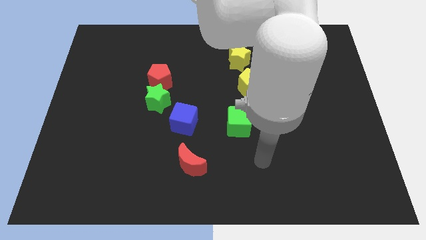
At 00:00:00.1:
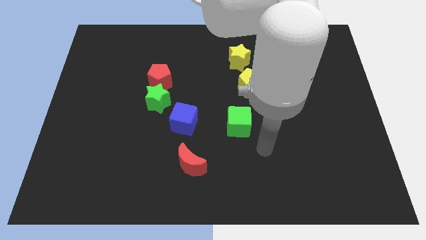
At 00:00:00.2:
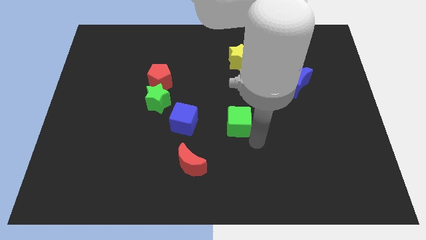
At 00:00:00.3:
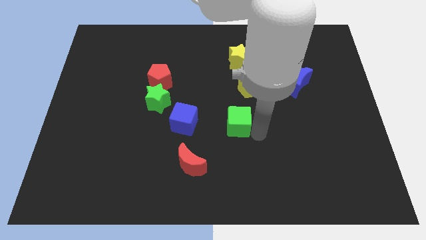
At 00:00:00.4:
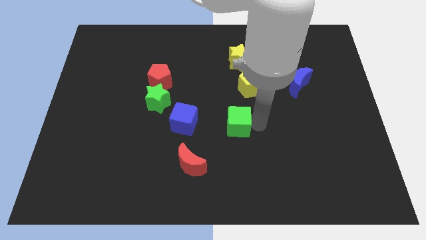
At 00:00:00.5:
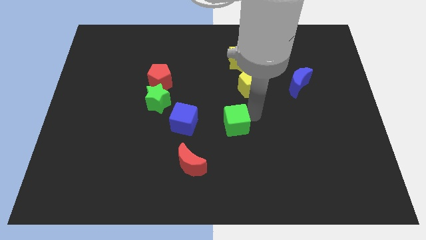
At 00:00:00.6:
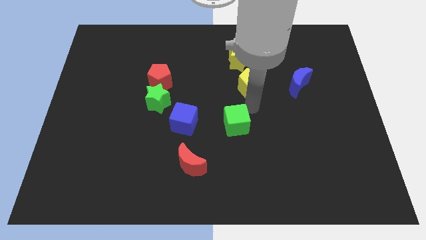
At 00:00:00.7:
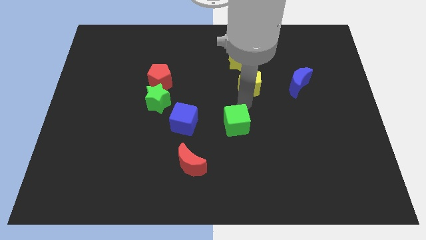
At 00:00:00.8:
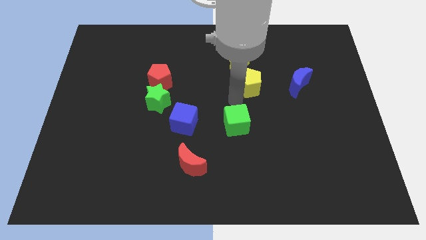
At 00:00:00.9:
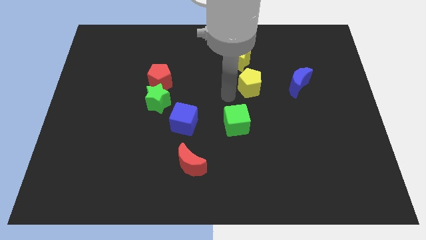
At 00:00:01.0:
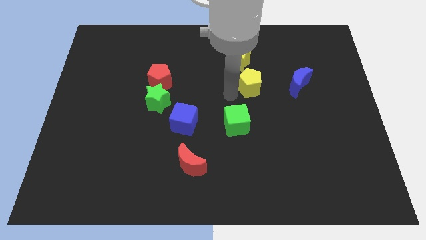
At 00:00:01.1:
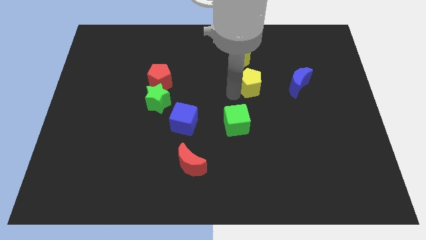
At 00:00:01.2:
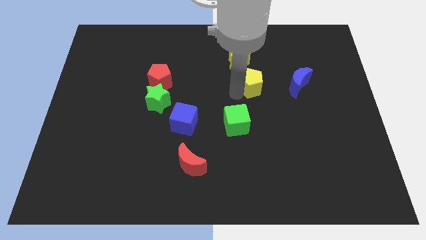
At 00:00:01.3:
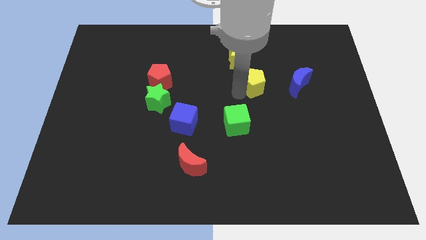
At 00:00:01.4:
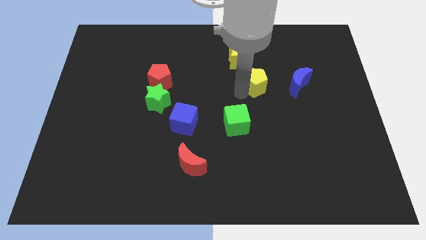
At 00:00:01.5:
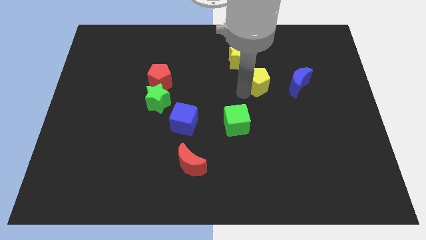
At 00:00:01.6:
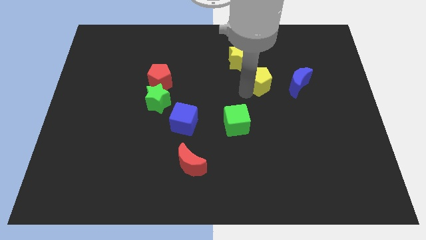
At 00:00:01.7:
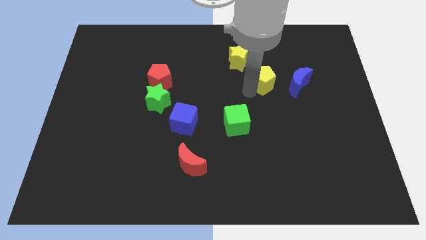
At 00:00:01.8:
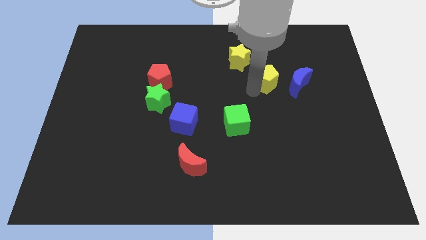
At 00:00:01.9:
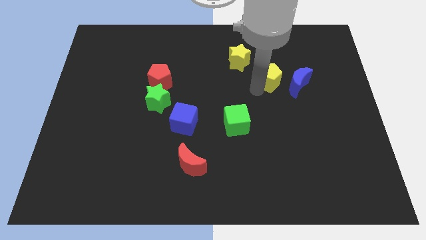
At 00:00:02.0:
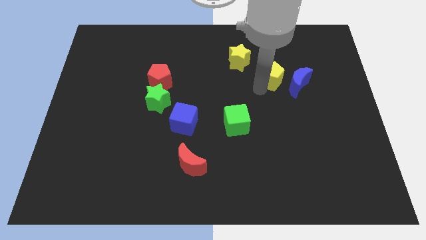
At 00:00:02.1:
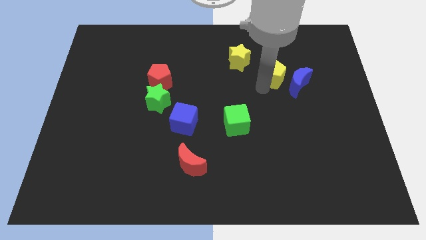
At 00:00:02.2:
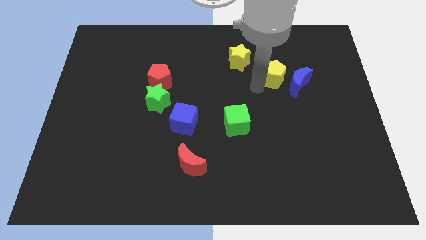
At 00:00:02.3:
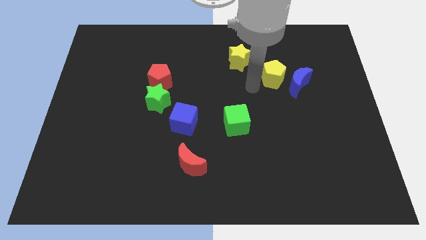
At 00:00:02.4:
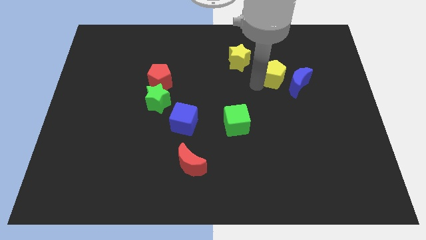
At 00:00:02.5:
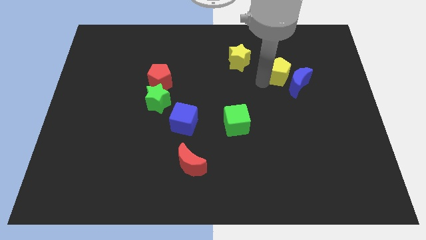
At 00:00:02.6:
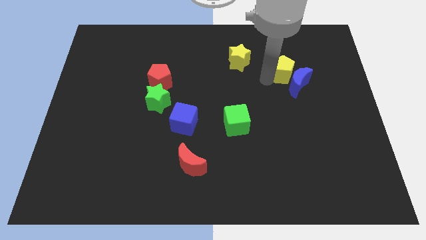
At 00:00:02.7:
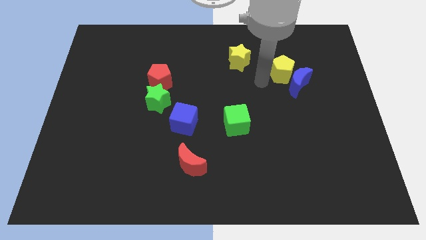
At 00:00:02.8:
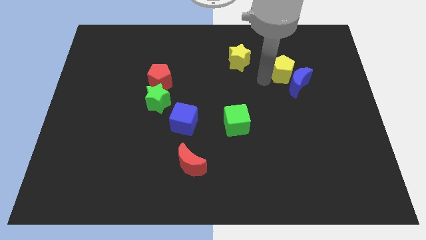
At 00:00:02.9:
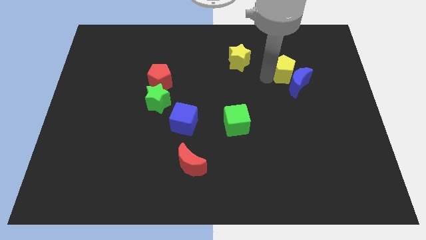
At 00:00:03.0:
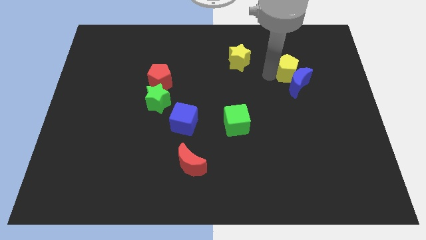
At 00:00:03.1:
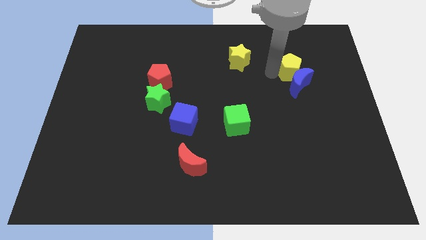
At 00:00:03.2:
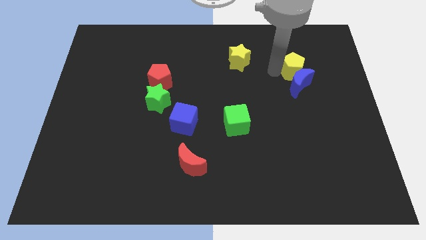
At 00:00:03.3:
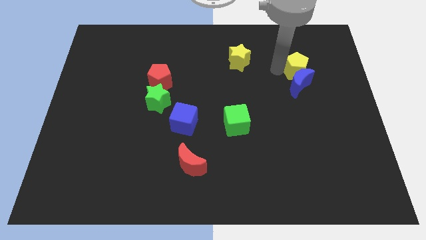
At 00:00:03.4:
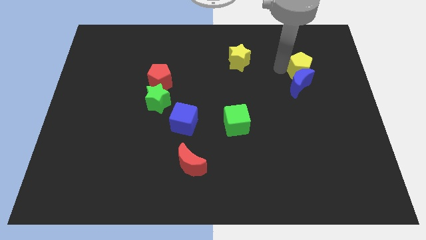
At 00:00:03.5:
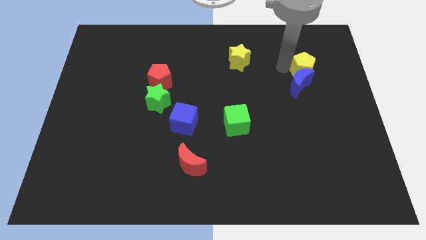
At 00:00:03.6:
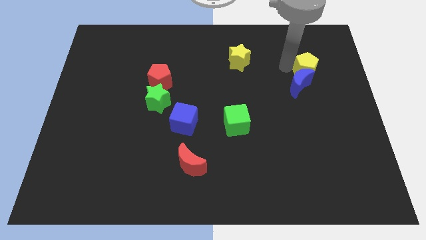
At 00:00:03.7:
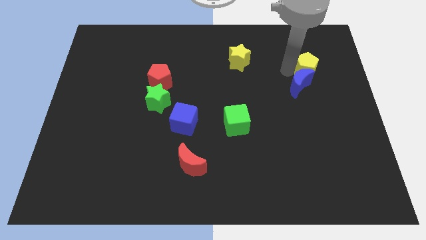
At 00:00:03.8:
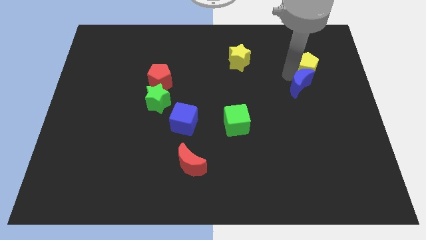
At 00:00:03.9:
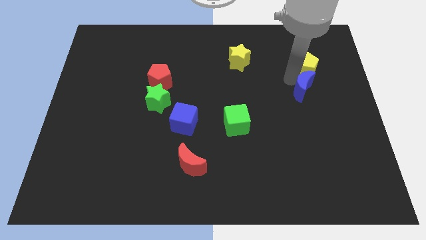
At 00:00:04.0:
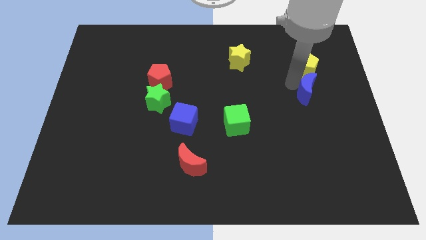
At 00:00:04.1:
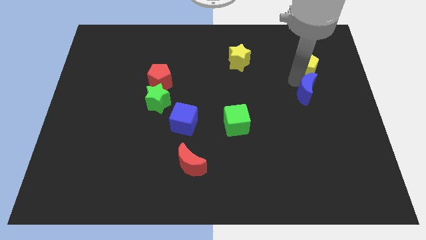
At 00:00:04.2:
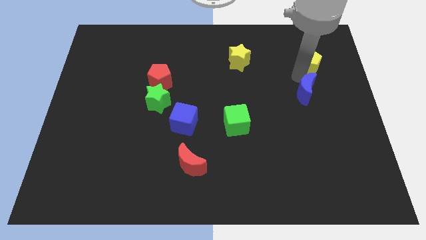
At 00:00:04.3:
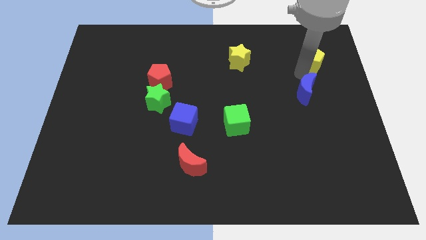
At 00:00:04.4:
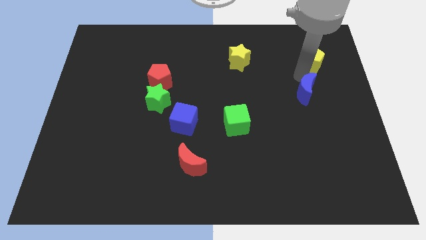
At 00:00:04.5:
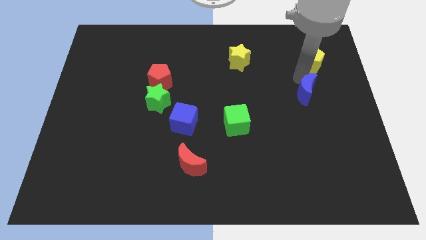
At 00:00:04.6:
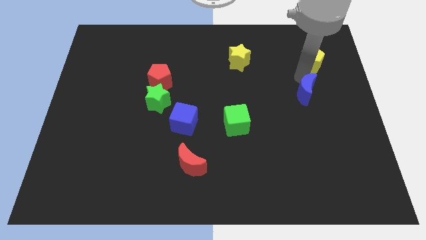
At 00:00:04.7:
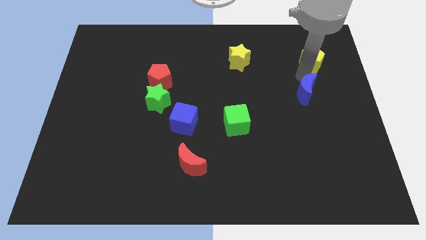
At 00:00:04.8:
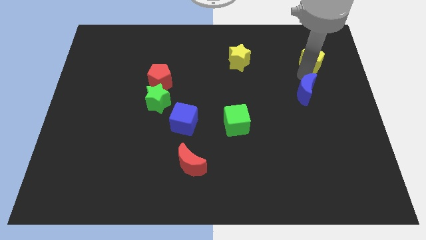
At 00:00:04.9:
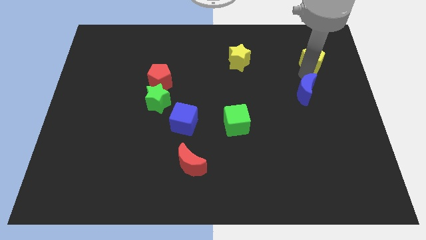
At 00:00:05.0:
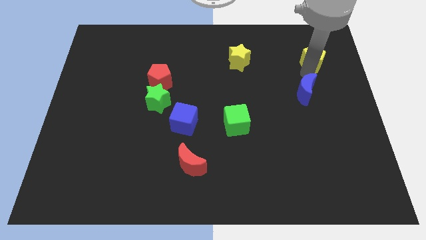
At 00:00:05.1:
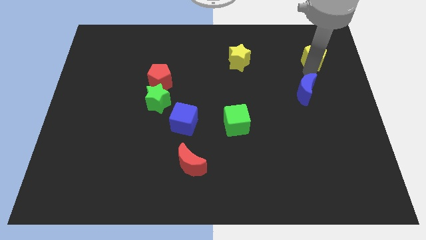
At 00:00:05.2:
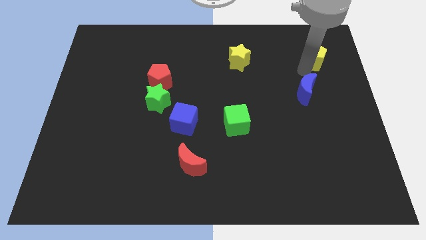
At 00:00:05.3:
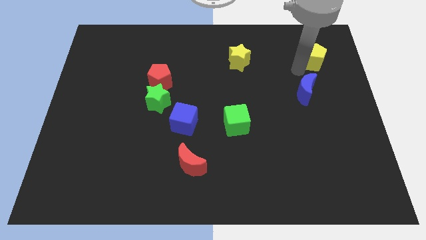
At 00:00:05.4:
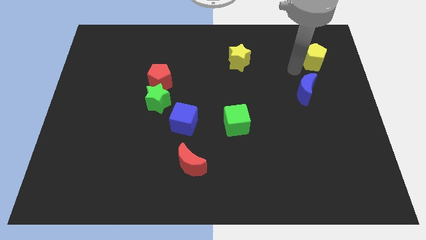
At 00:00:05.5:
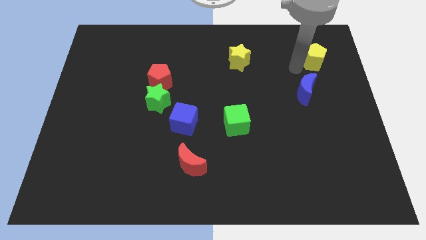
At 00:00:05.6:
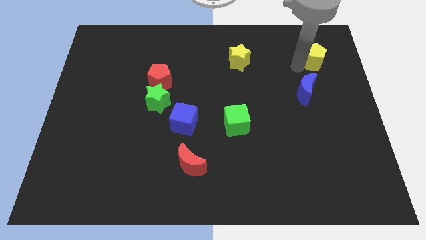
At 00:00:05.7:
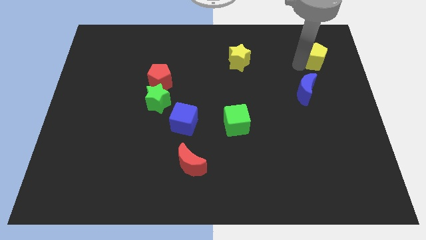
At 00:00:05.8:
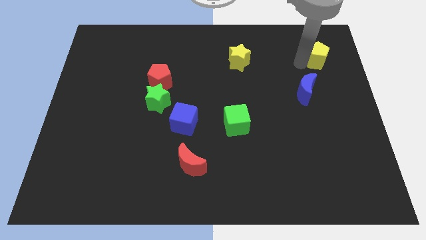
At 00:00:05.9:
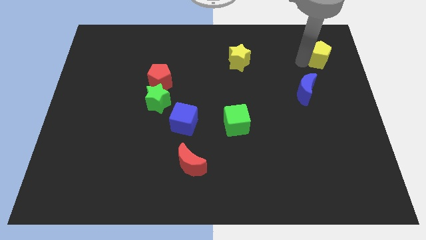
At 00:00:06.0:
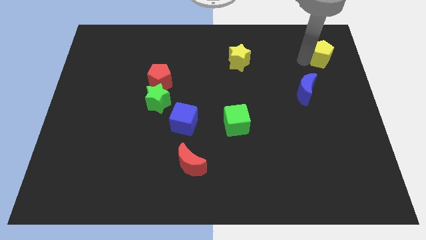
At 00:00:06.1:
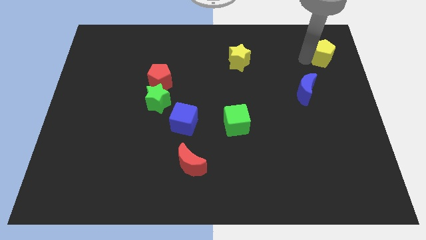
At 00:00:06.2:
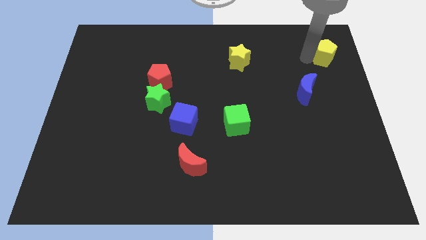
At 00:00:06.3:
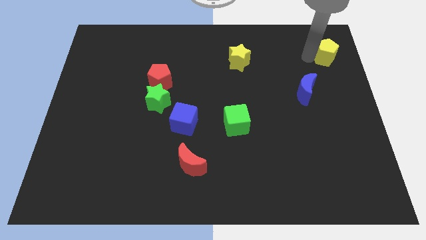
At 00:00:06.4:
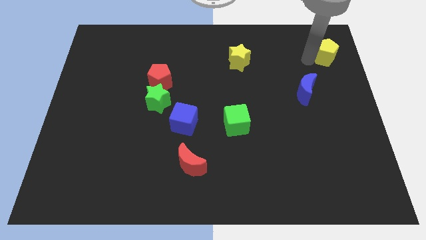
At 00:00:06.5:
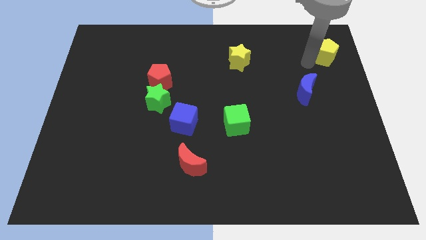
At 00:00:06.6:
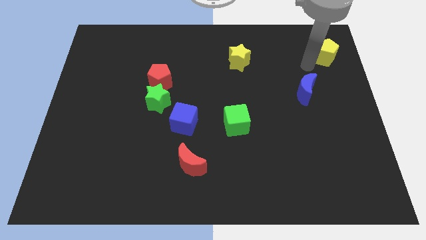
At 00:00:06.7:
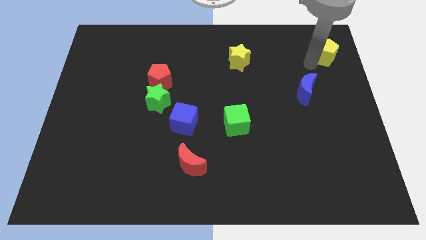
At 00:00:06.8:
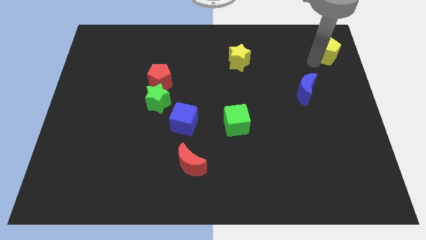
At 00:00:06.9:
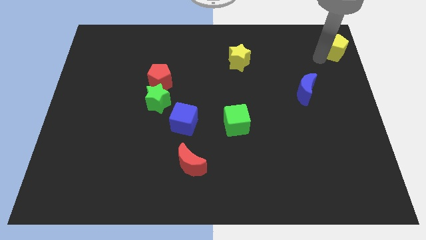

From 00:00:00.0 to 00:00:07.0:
slide the yellow pentagon to the top right corner

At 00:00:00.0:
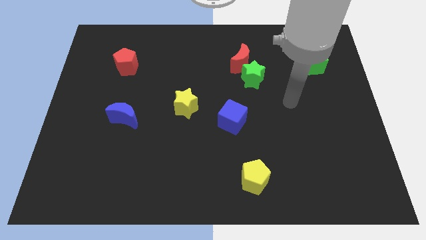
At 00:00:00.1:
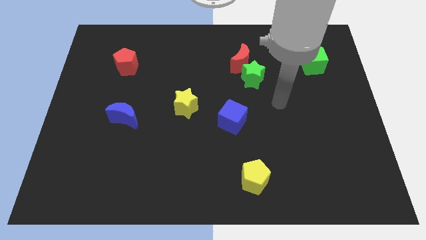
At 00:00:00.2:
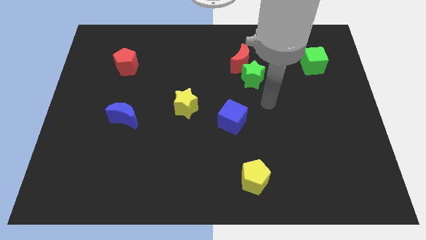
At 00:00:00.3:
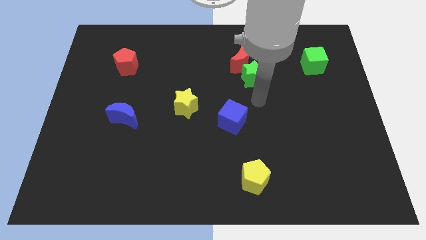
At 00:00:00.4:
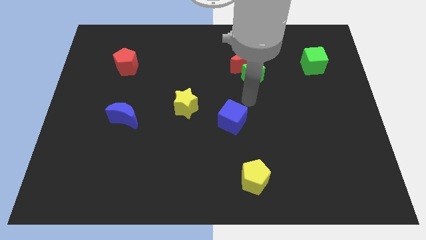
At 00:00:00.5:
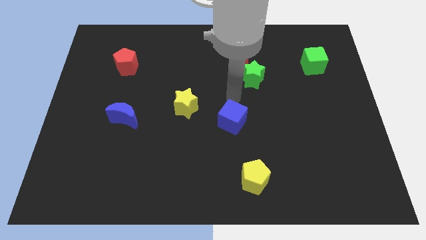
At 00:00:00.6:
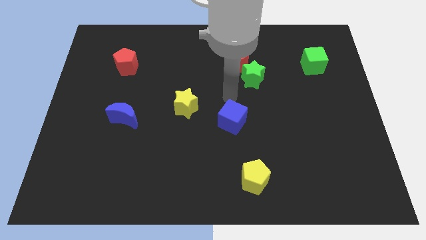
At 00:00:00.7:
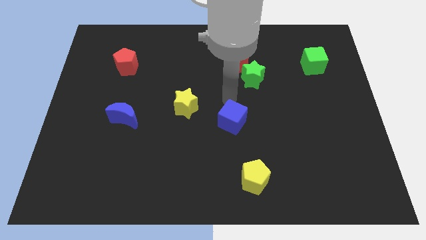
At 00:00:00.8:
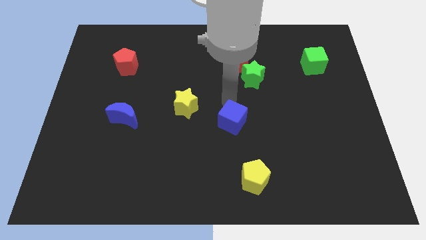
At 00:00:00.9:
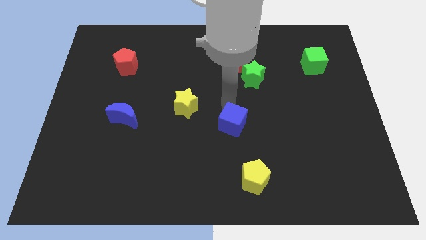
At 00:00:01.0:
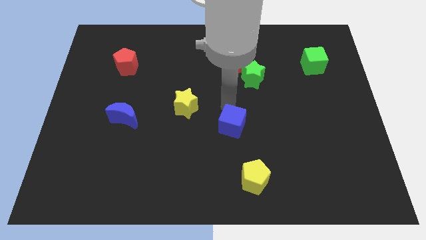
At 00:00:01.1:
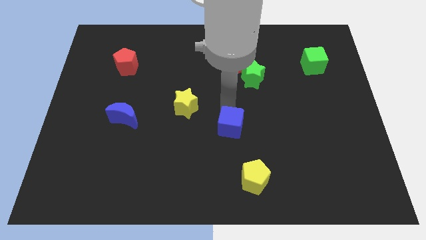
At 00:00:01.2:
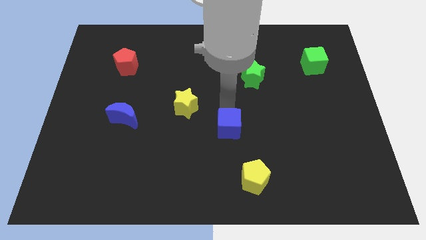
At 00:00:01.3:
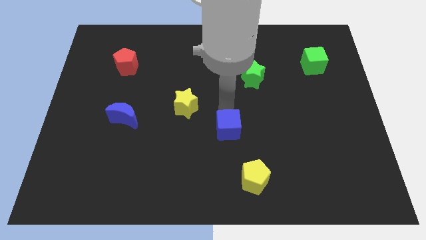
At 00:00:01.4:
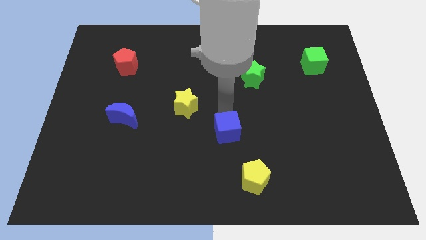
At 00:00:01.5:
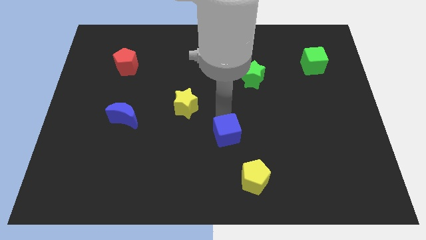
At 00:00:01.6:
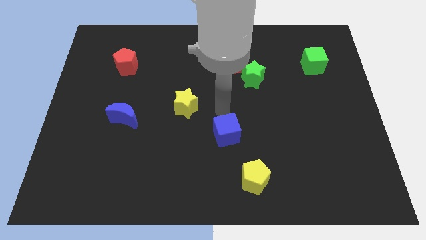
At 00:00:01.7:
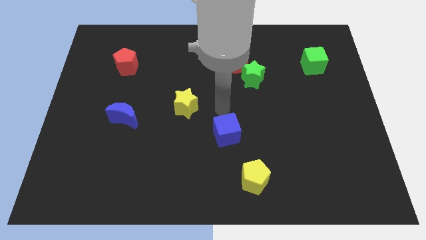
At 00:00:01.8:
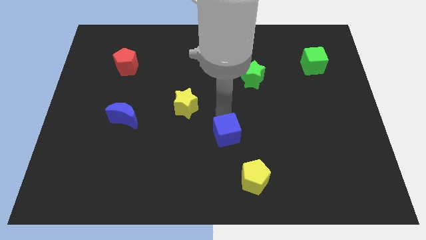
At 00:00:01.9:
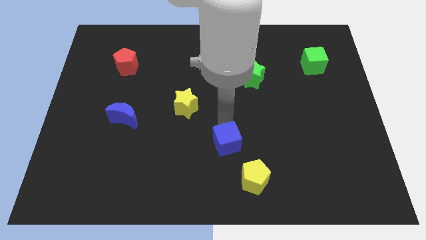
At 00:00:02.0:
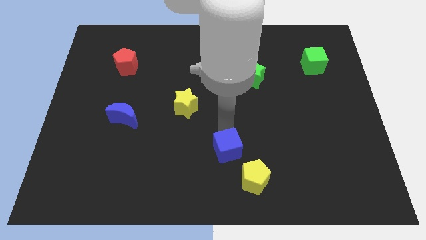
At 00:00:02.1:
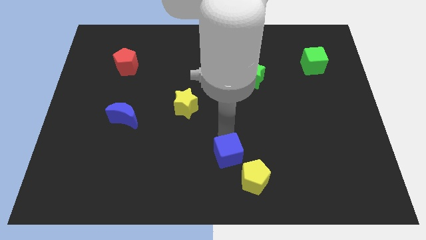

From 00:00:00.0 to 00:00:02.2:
slide the blue cube to the bottom side
